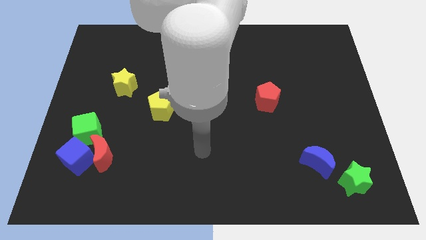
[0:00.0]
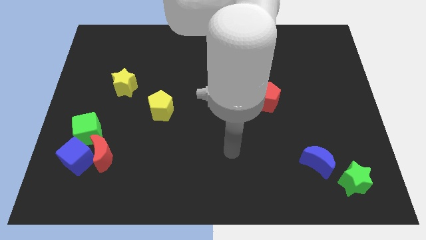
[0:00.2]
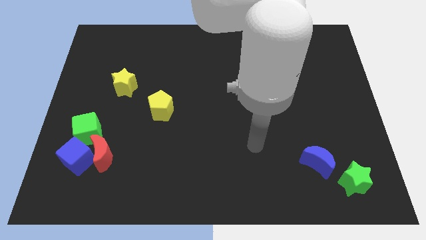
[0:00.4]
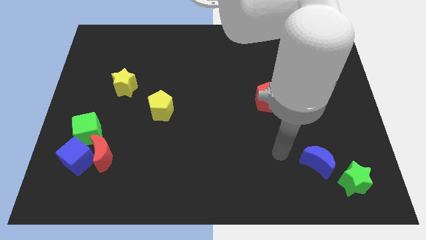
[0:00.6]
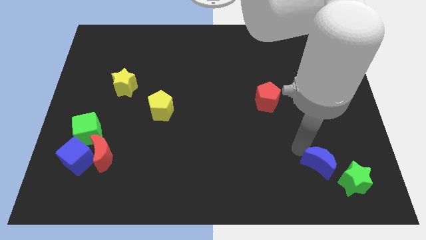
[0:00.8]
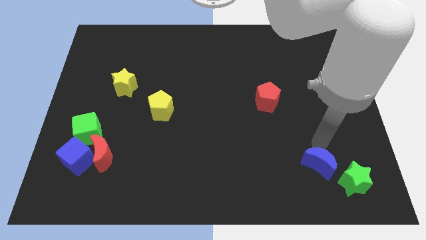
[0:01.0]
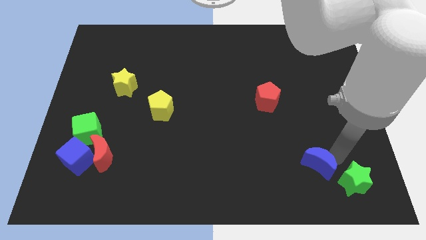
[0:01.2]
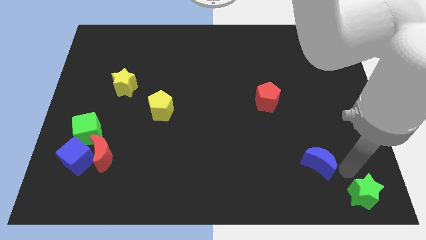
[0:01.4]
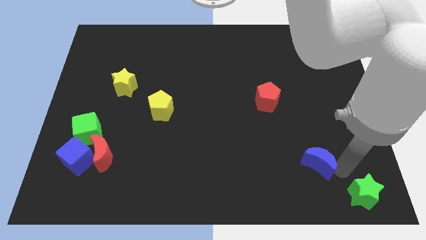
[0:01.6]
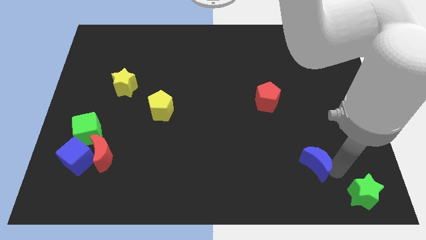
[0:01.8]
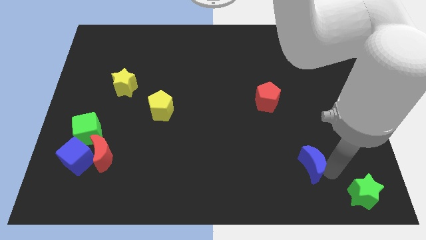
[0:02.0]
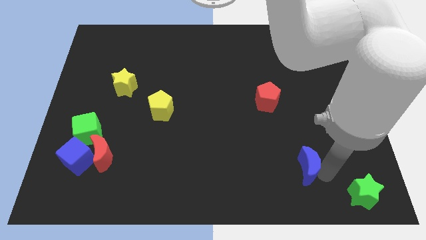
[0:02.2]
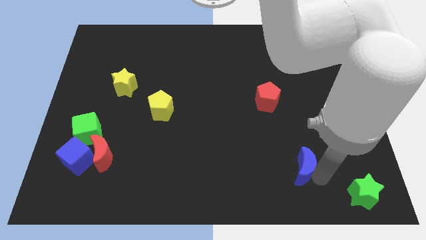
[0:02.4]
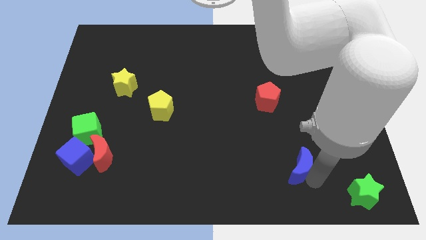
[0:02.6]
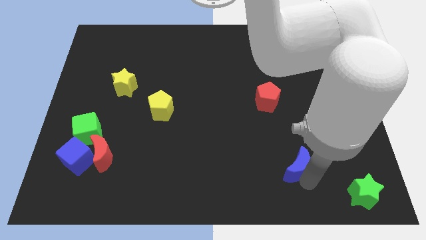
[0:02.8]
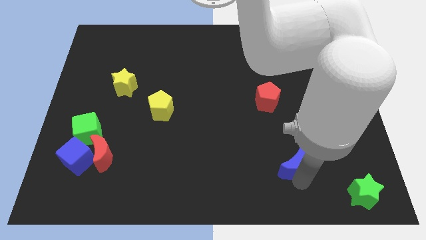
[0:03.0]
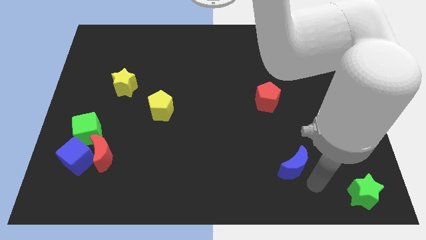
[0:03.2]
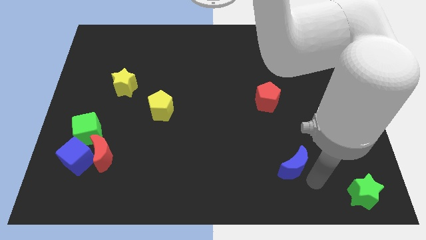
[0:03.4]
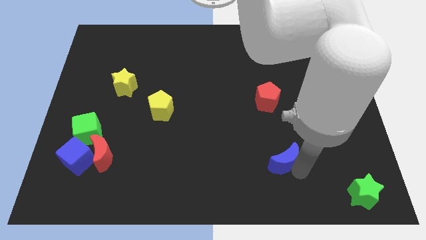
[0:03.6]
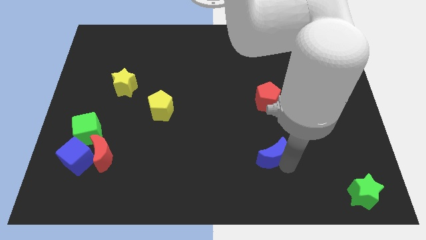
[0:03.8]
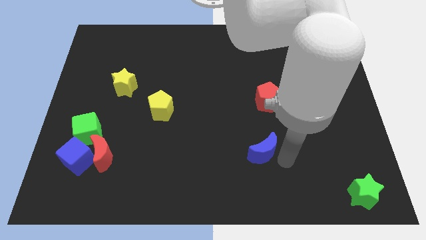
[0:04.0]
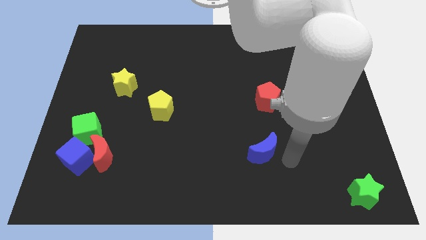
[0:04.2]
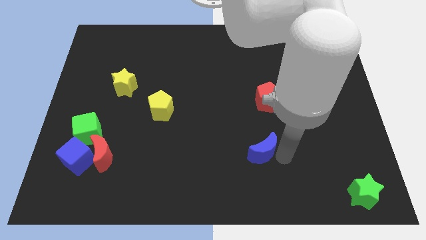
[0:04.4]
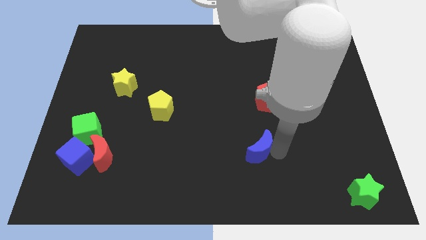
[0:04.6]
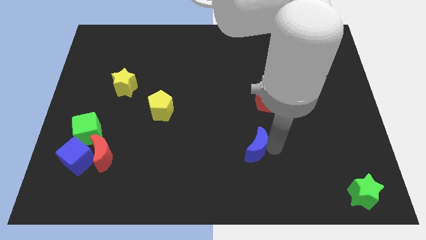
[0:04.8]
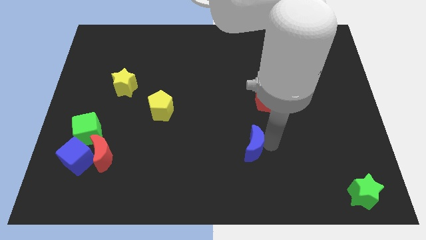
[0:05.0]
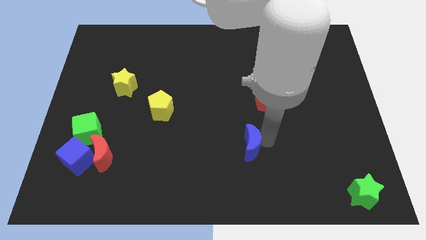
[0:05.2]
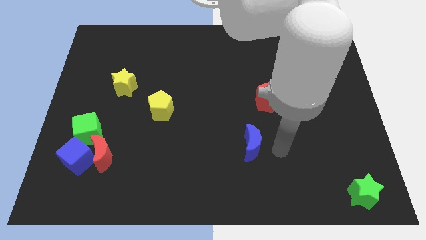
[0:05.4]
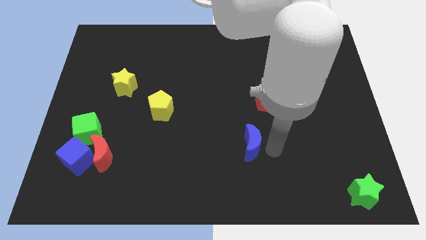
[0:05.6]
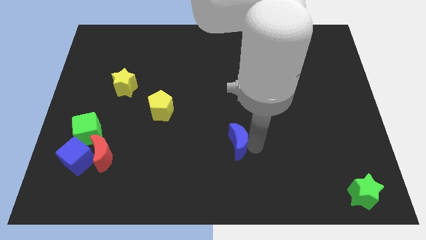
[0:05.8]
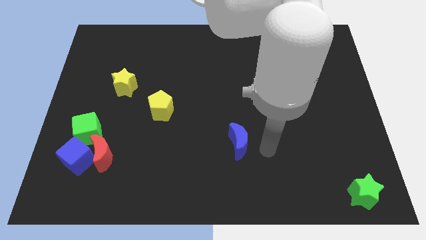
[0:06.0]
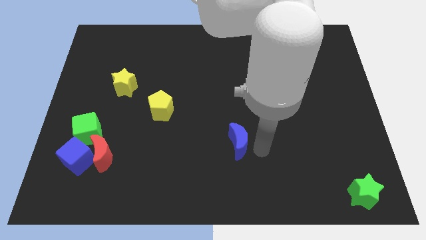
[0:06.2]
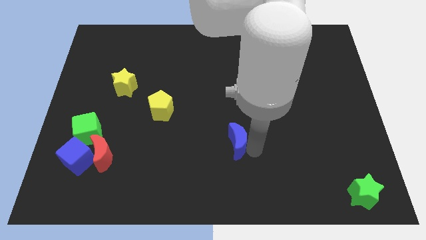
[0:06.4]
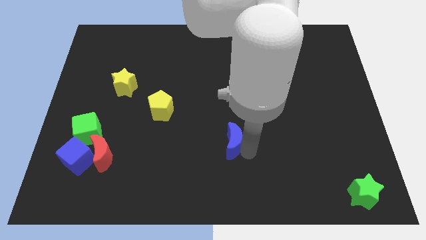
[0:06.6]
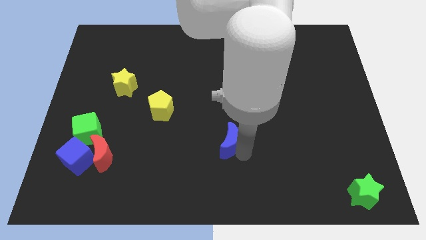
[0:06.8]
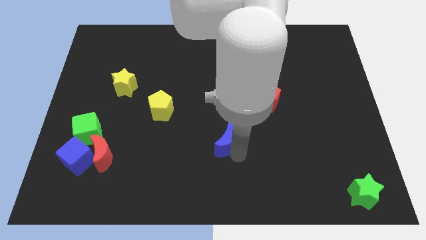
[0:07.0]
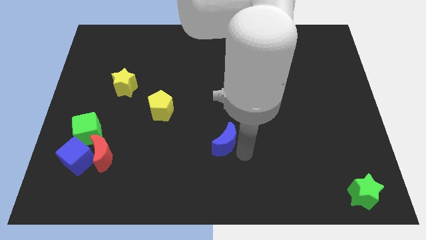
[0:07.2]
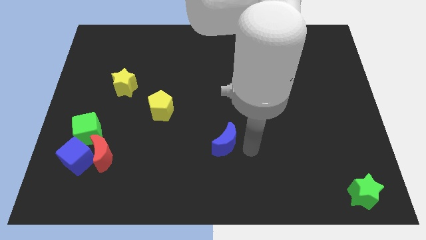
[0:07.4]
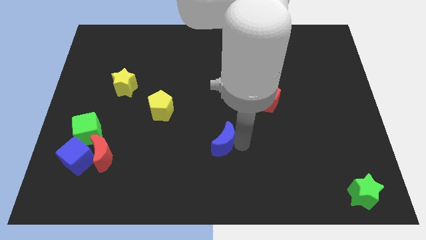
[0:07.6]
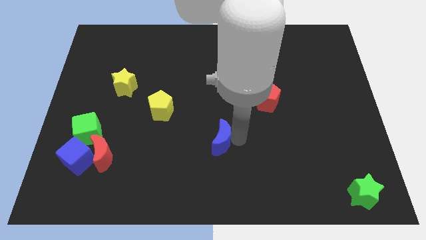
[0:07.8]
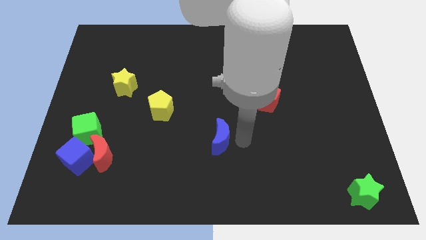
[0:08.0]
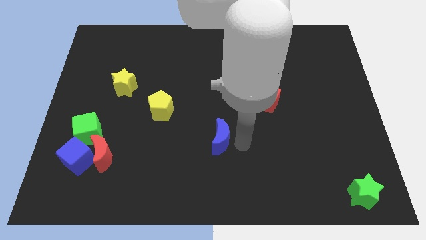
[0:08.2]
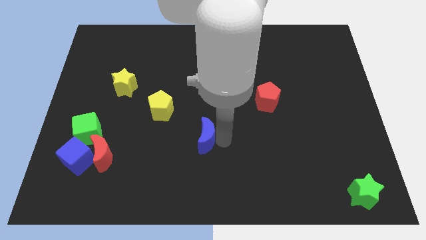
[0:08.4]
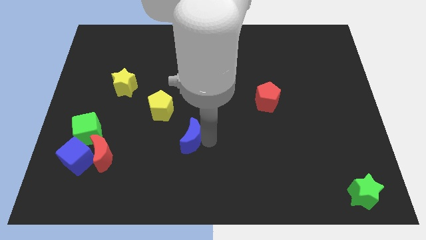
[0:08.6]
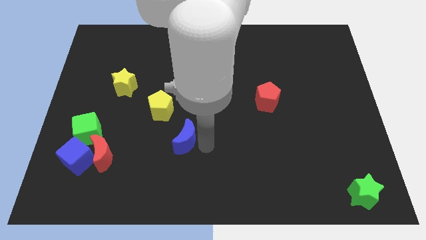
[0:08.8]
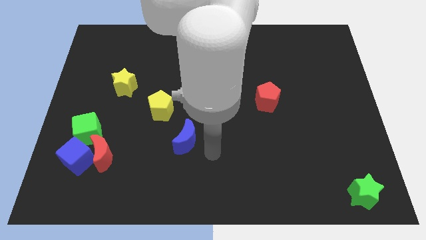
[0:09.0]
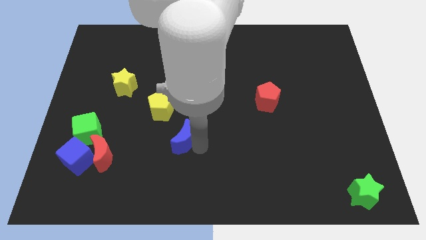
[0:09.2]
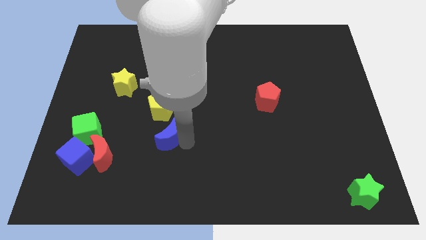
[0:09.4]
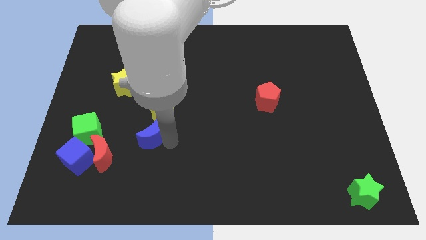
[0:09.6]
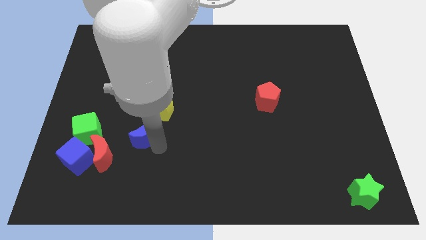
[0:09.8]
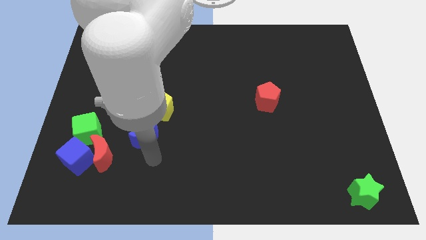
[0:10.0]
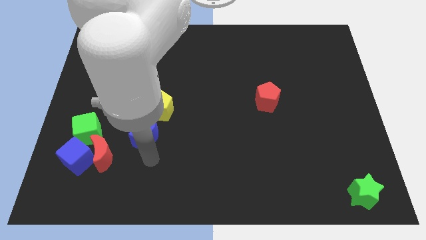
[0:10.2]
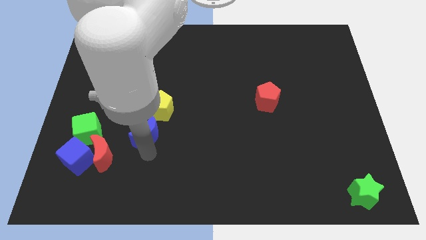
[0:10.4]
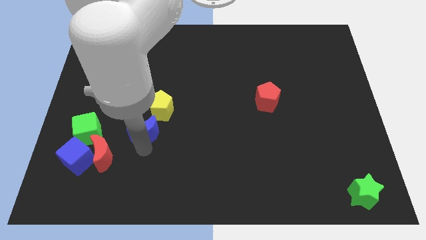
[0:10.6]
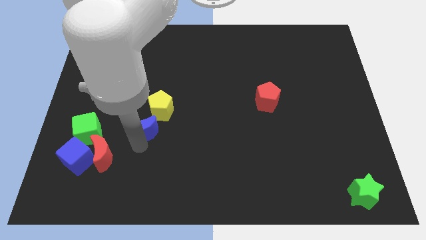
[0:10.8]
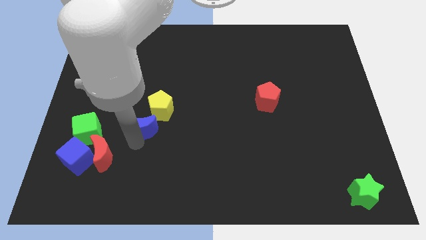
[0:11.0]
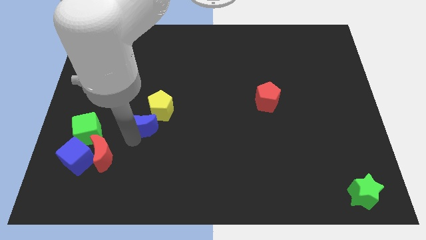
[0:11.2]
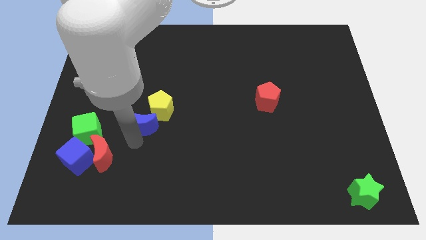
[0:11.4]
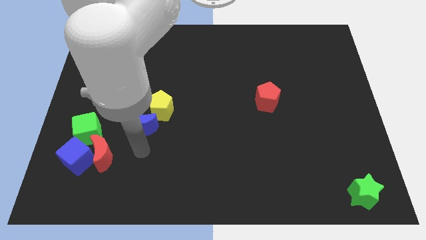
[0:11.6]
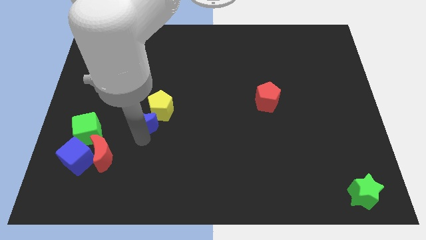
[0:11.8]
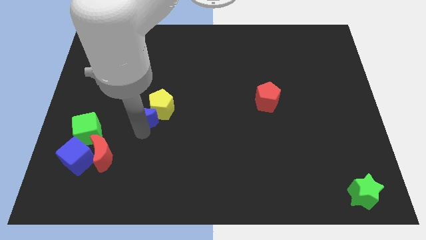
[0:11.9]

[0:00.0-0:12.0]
slide the blue moon to the bottom right side of the yellow star

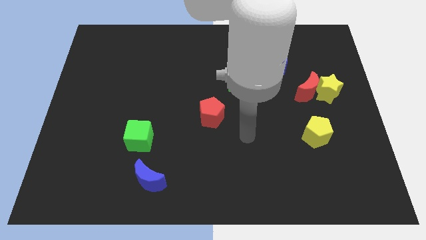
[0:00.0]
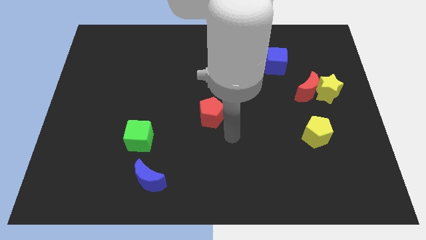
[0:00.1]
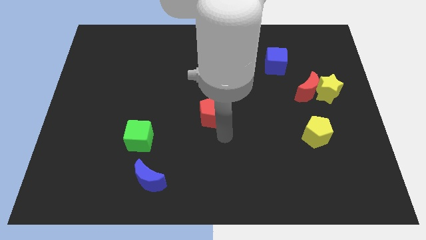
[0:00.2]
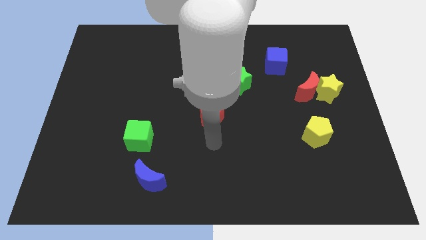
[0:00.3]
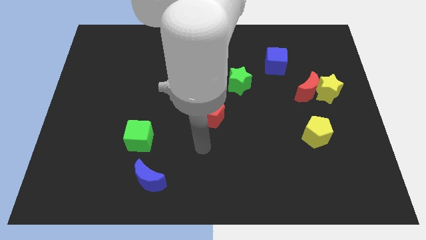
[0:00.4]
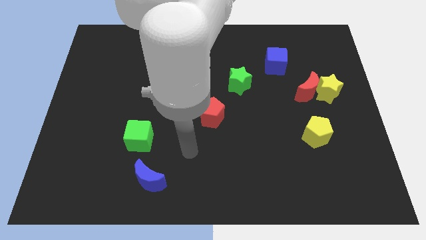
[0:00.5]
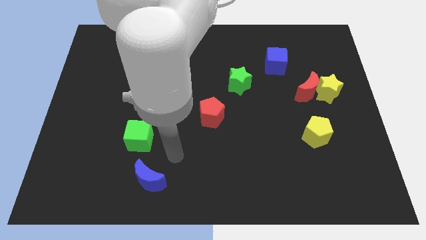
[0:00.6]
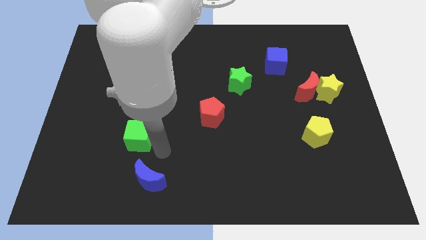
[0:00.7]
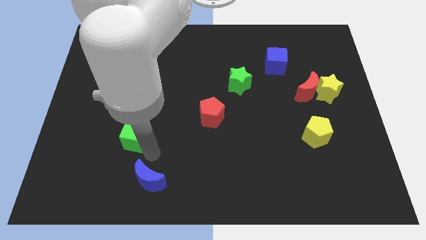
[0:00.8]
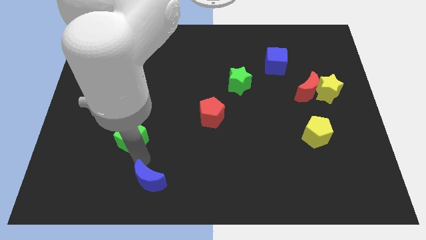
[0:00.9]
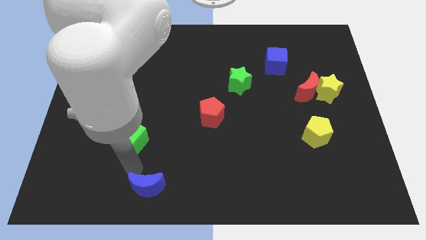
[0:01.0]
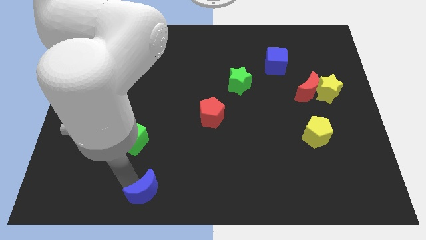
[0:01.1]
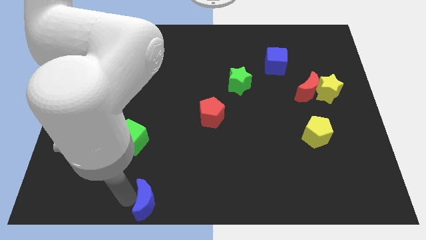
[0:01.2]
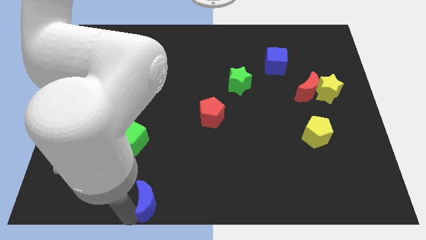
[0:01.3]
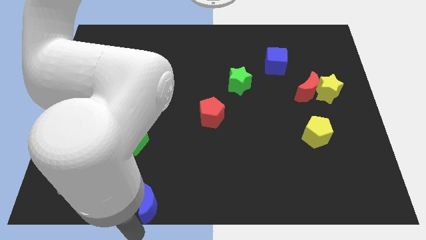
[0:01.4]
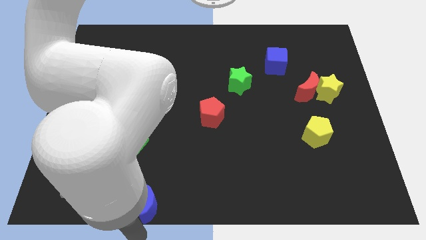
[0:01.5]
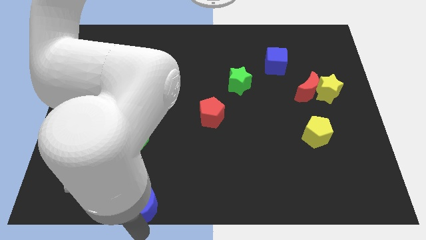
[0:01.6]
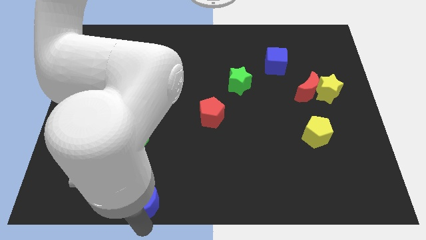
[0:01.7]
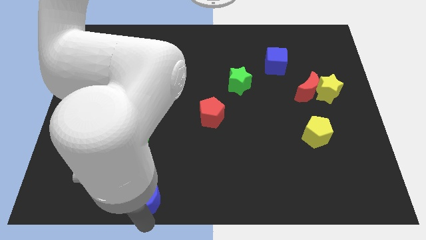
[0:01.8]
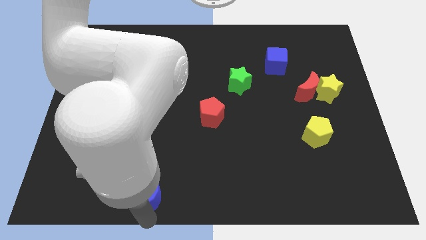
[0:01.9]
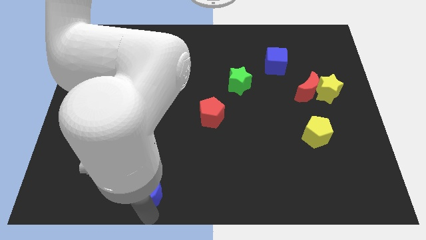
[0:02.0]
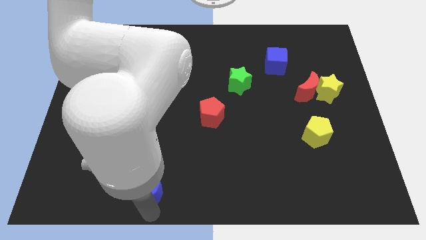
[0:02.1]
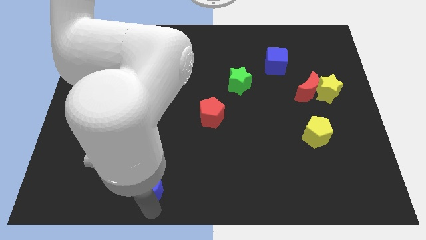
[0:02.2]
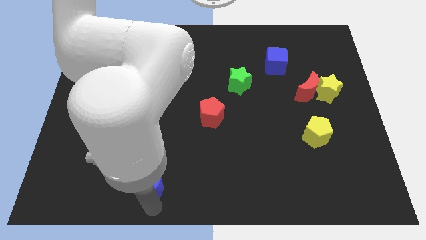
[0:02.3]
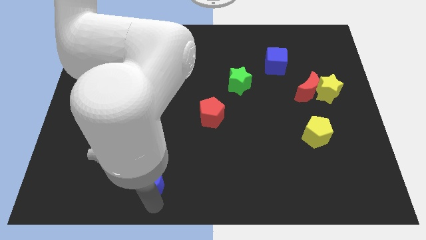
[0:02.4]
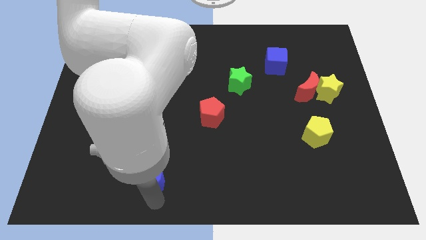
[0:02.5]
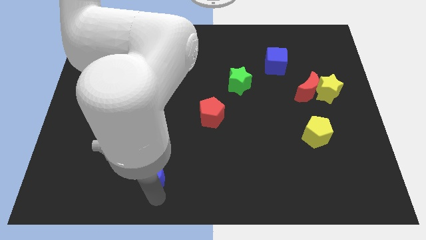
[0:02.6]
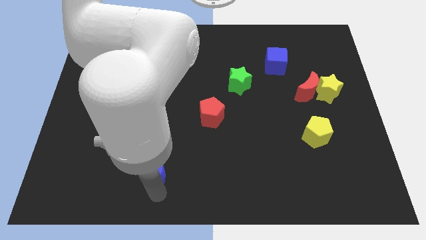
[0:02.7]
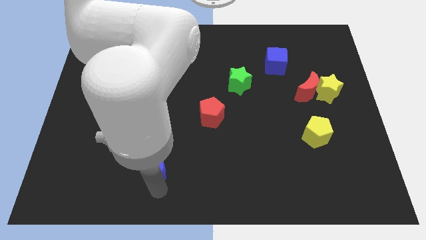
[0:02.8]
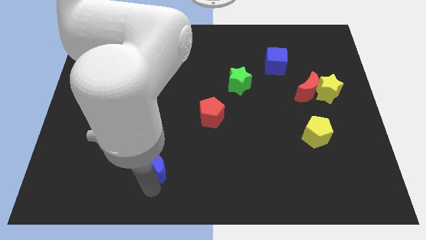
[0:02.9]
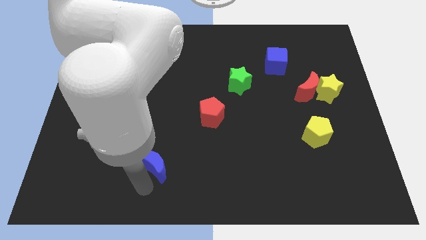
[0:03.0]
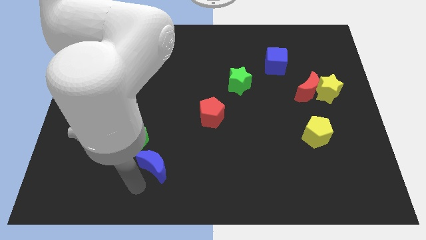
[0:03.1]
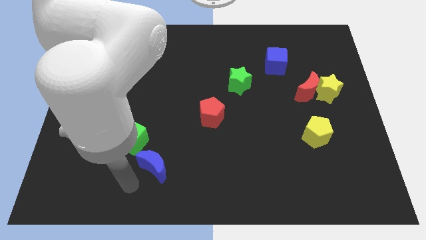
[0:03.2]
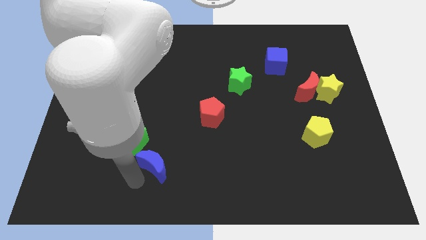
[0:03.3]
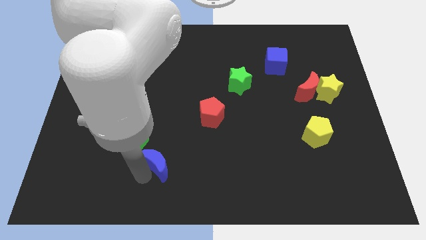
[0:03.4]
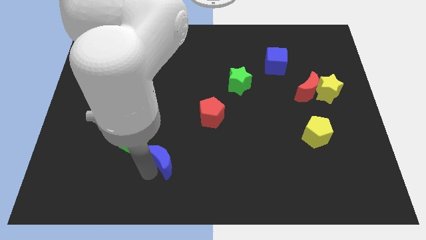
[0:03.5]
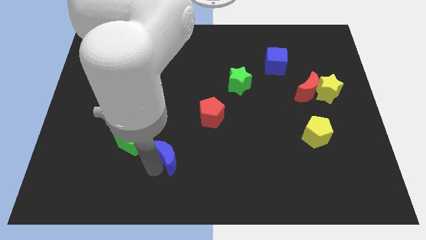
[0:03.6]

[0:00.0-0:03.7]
push the blue moon just right of the green cube
